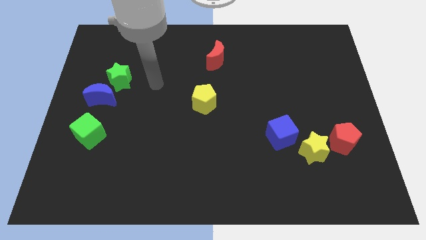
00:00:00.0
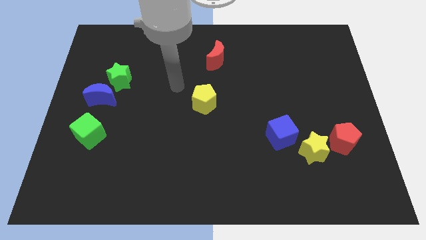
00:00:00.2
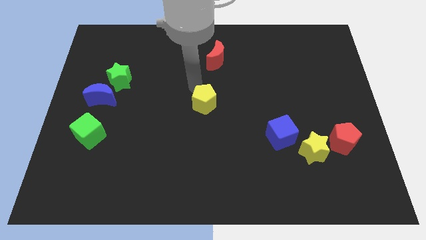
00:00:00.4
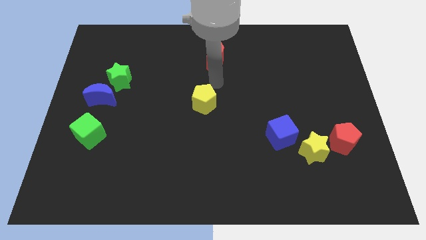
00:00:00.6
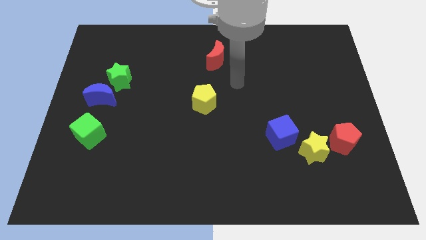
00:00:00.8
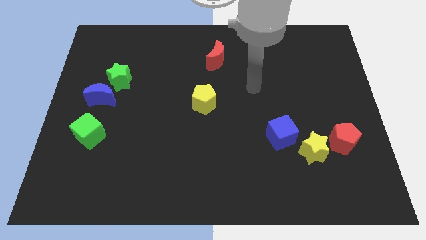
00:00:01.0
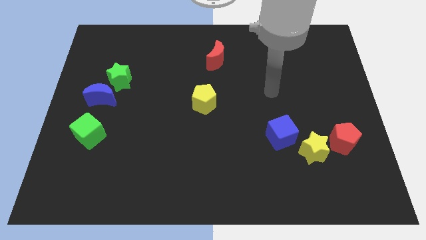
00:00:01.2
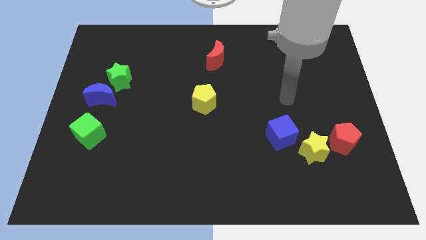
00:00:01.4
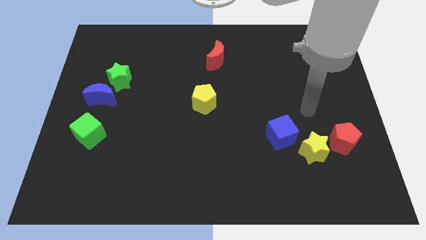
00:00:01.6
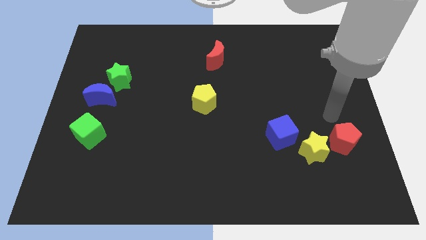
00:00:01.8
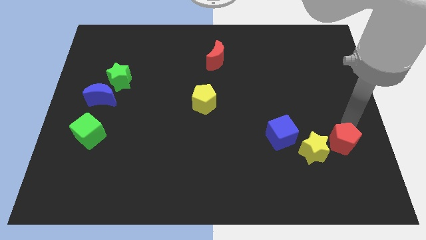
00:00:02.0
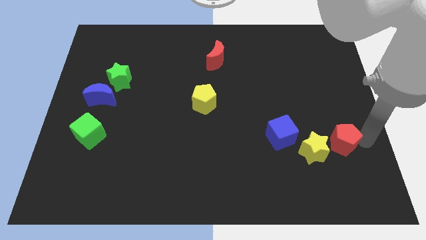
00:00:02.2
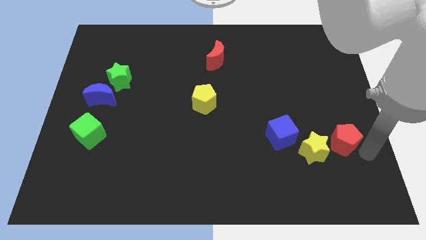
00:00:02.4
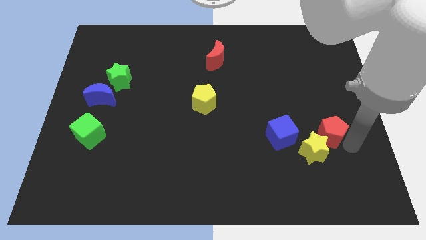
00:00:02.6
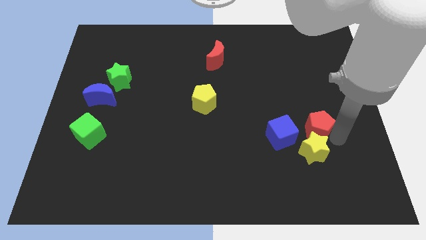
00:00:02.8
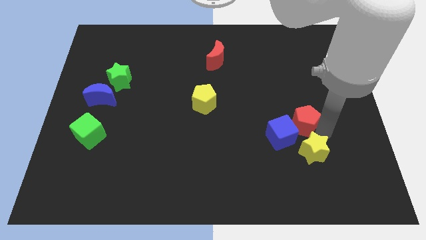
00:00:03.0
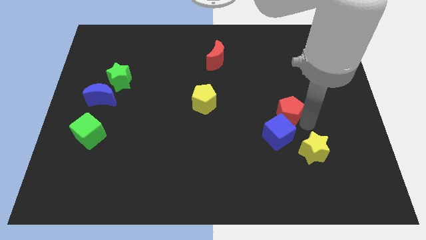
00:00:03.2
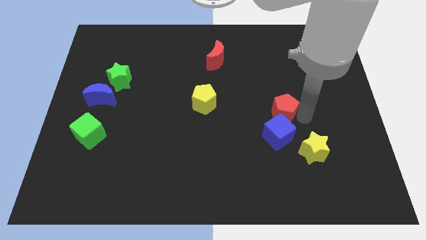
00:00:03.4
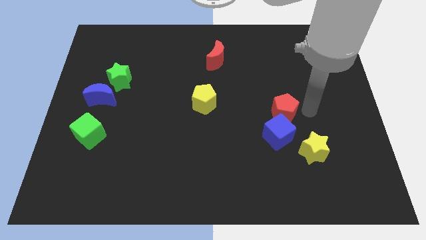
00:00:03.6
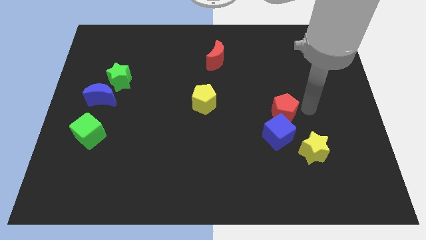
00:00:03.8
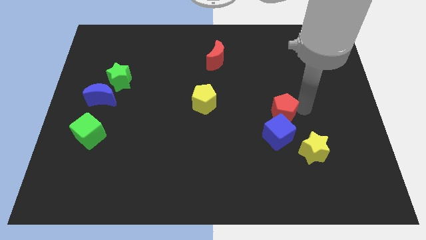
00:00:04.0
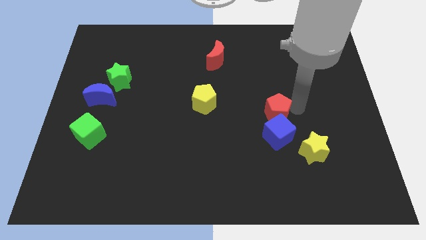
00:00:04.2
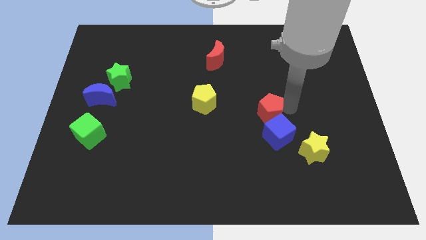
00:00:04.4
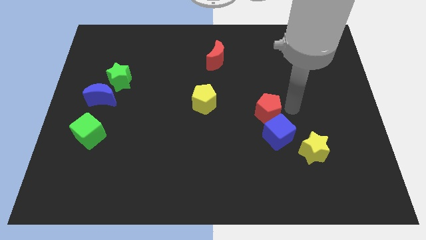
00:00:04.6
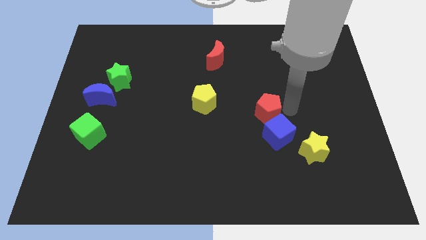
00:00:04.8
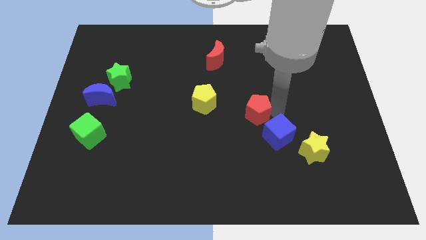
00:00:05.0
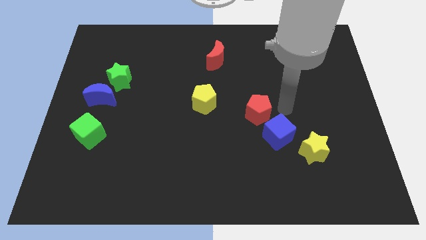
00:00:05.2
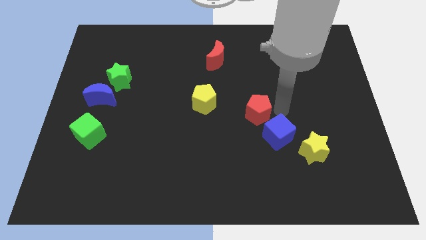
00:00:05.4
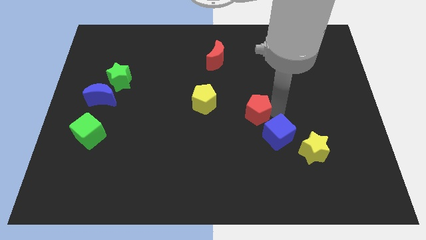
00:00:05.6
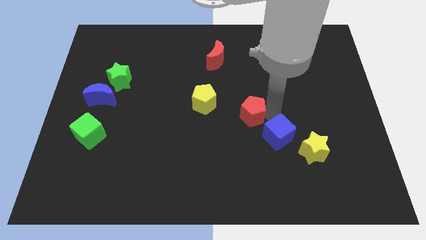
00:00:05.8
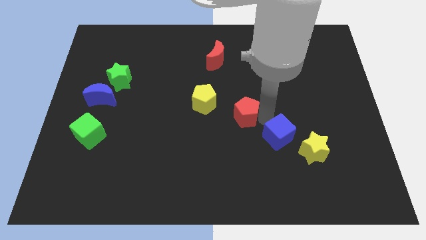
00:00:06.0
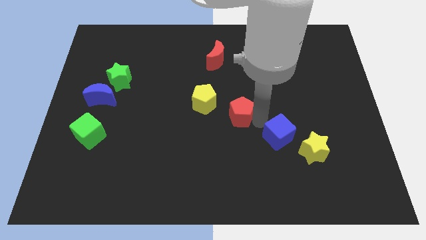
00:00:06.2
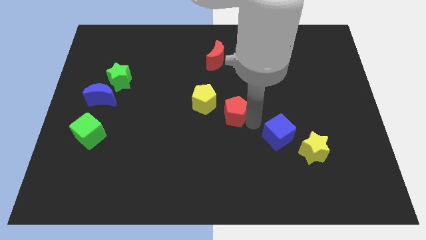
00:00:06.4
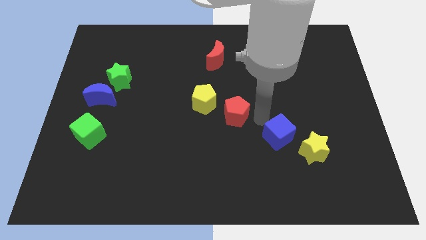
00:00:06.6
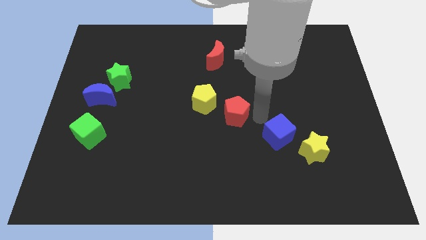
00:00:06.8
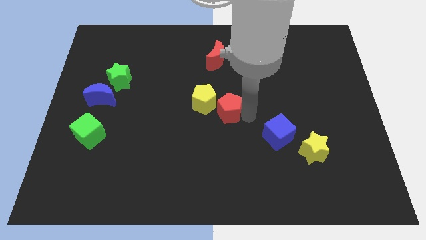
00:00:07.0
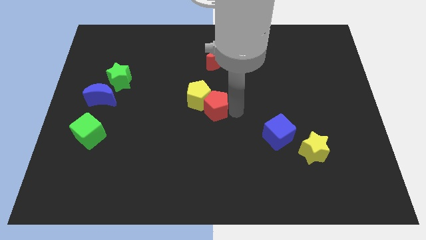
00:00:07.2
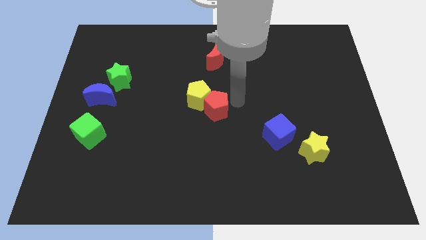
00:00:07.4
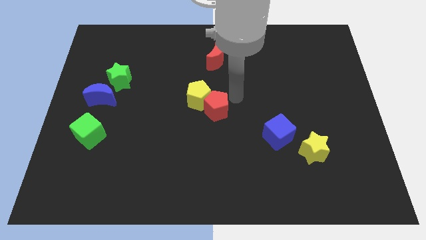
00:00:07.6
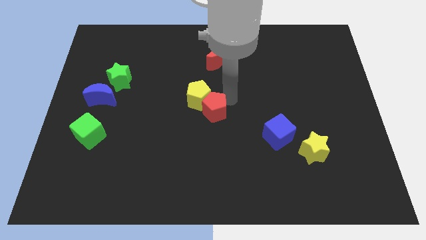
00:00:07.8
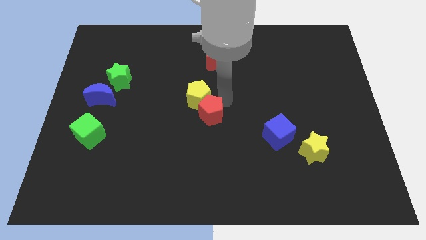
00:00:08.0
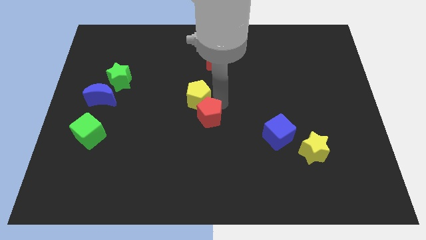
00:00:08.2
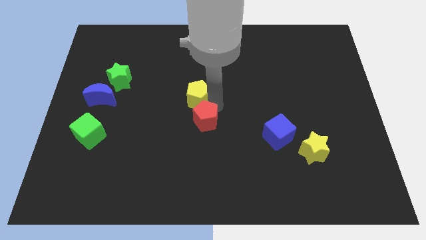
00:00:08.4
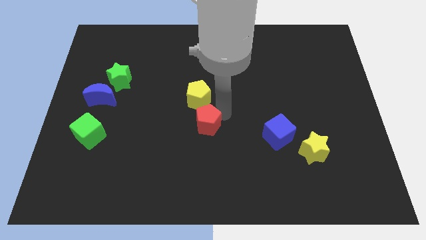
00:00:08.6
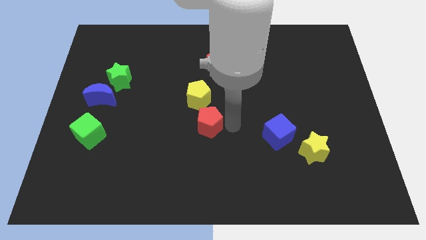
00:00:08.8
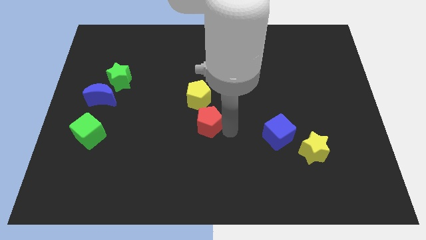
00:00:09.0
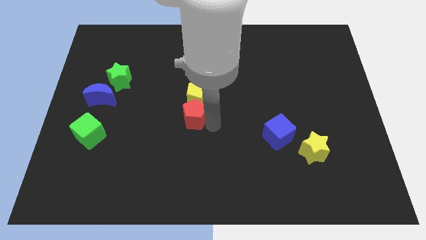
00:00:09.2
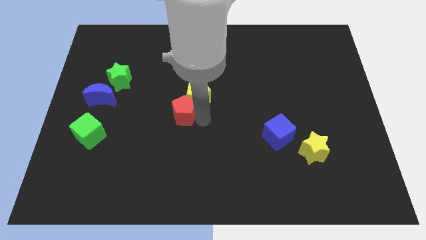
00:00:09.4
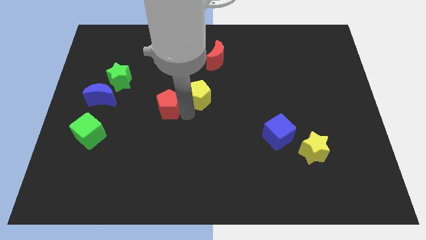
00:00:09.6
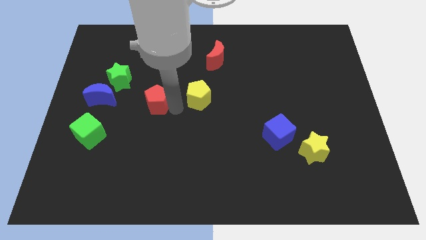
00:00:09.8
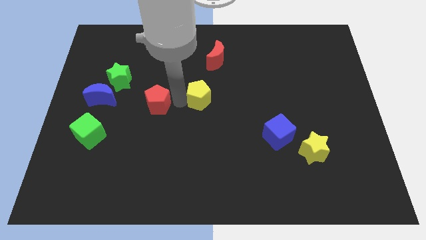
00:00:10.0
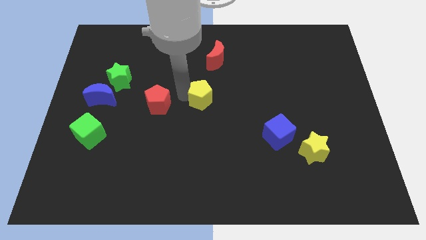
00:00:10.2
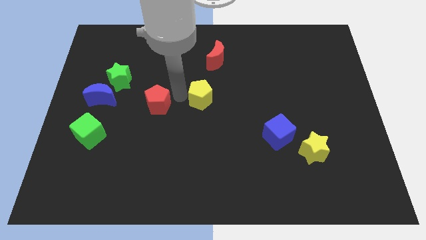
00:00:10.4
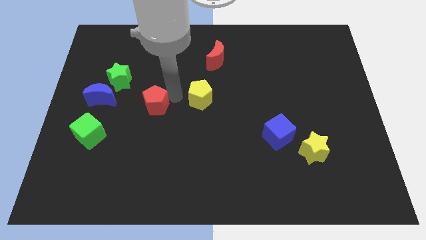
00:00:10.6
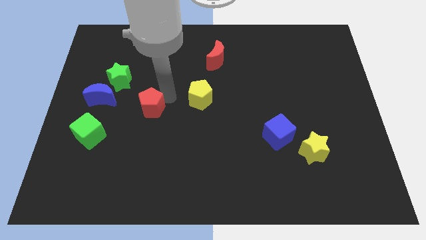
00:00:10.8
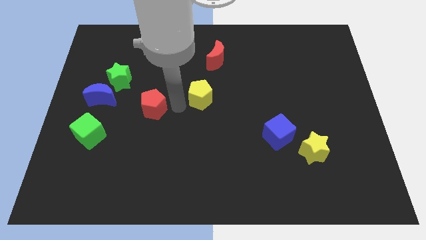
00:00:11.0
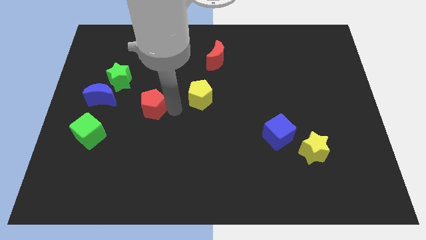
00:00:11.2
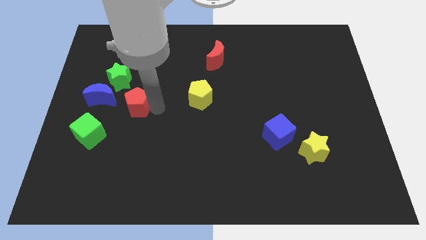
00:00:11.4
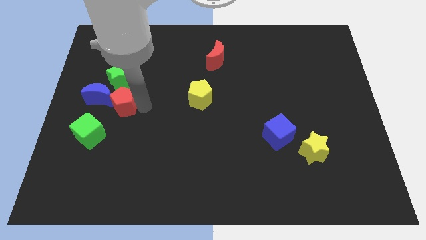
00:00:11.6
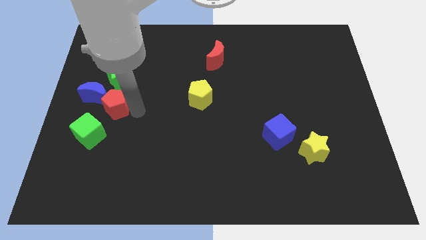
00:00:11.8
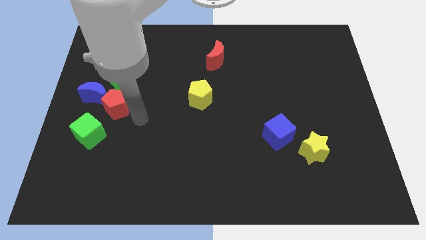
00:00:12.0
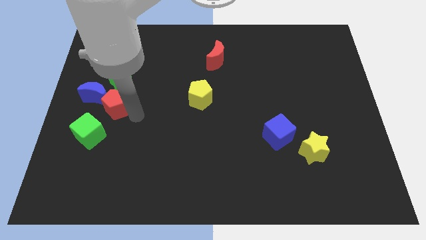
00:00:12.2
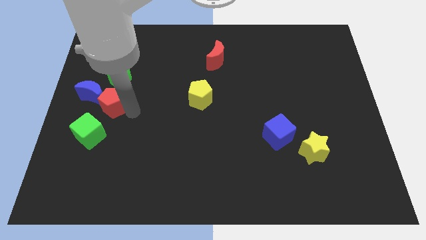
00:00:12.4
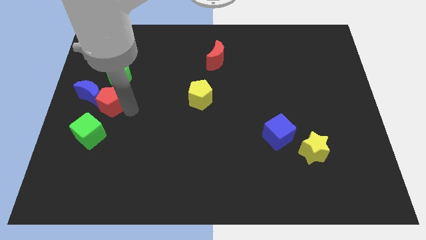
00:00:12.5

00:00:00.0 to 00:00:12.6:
slide the red pentagon towards the blue moon

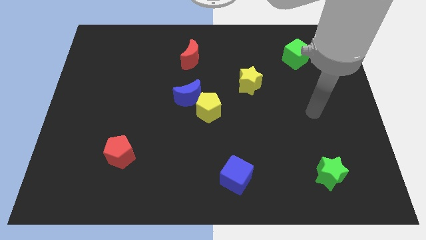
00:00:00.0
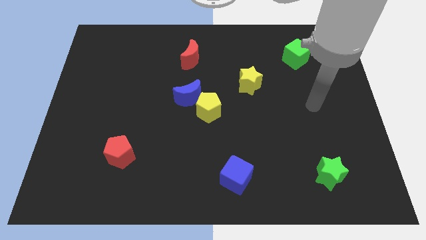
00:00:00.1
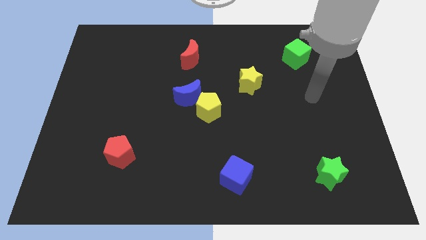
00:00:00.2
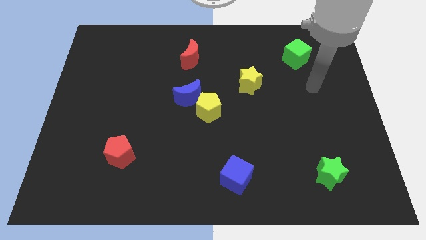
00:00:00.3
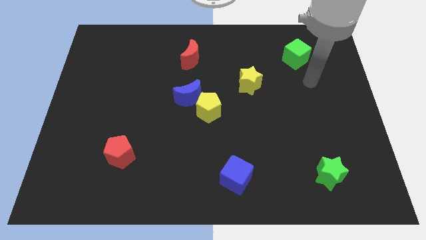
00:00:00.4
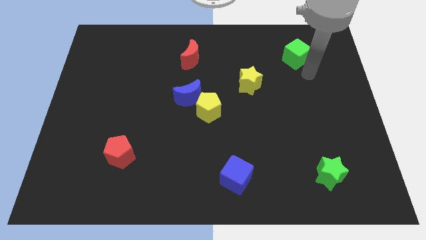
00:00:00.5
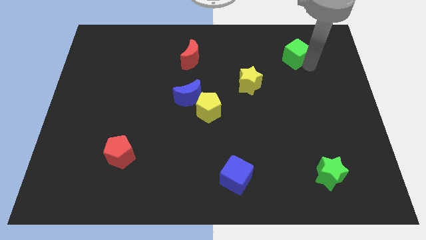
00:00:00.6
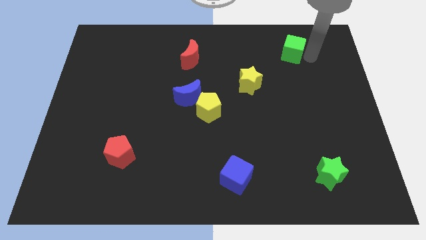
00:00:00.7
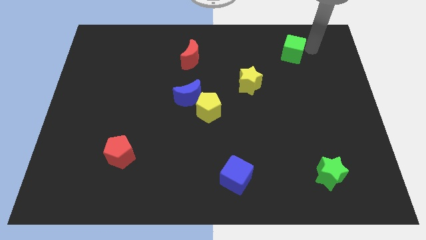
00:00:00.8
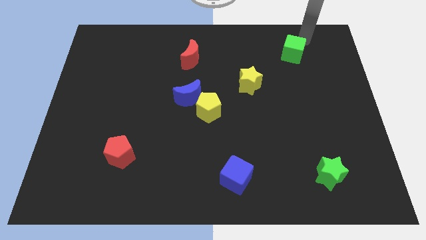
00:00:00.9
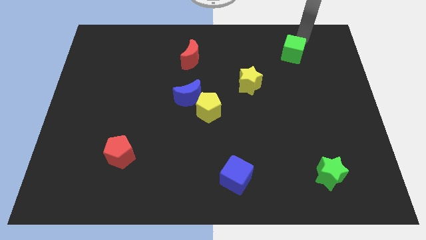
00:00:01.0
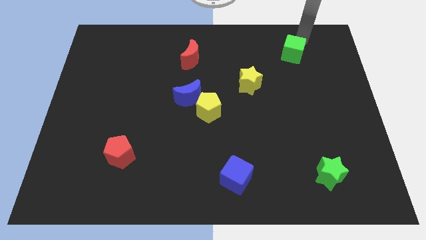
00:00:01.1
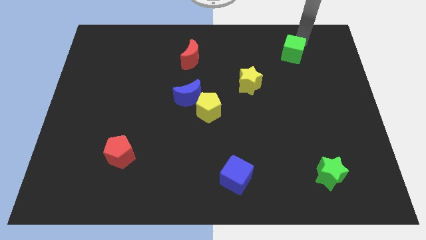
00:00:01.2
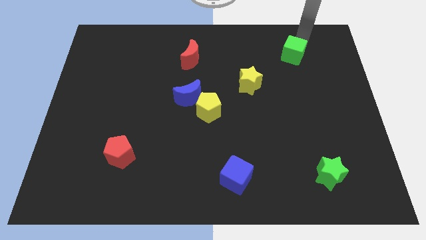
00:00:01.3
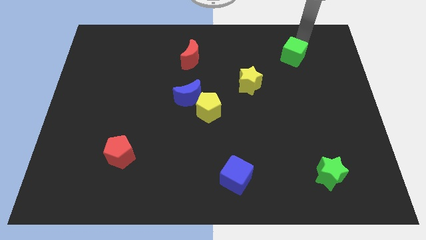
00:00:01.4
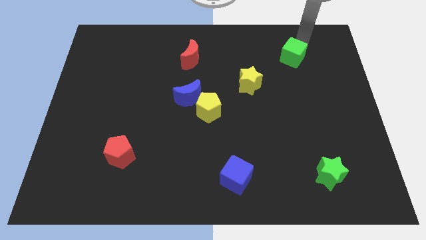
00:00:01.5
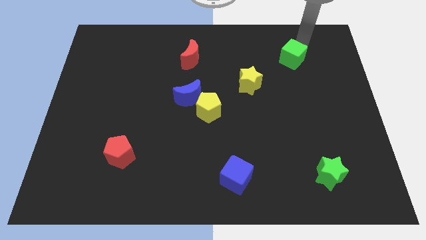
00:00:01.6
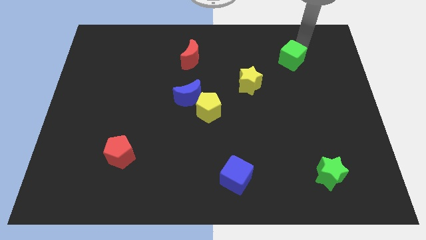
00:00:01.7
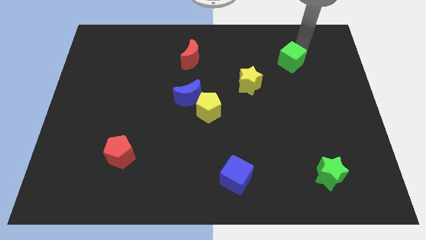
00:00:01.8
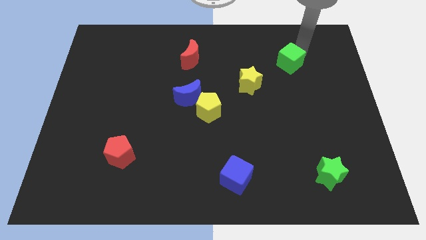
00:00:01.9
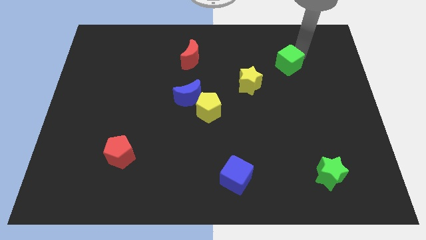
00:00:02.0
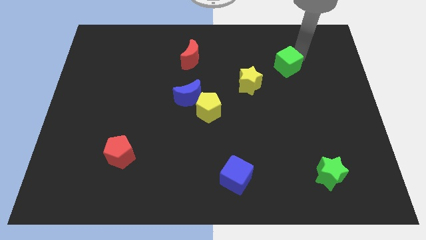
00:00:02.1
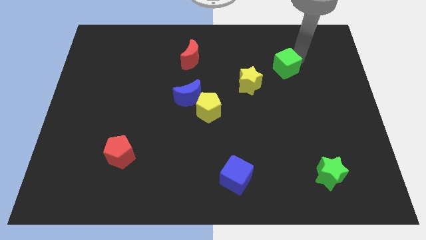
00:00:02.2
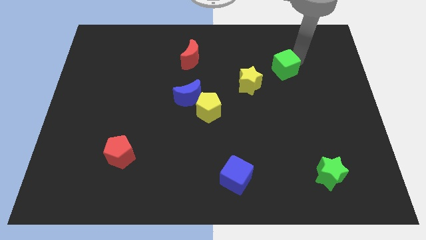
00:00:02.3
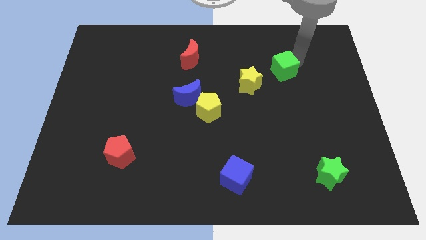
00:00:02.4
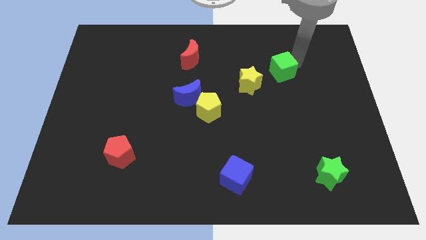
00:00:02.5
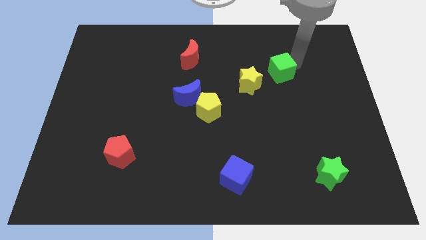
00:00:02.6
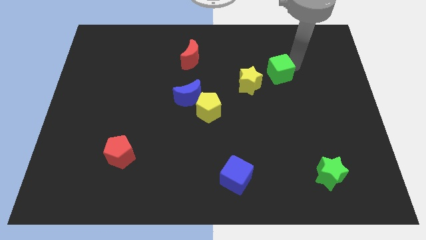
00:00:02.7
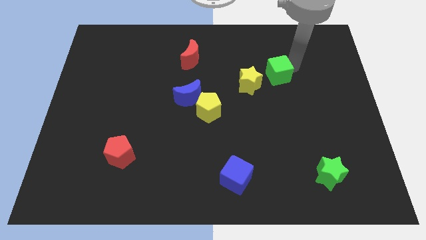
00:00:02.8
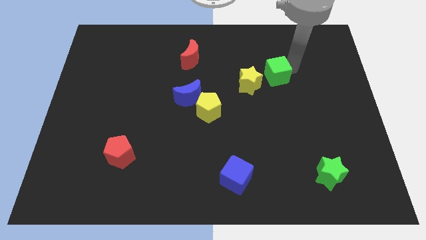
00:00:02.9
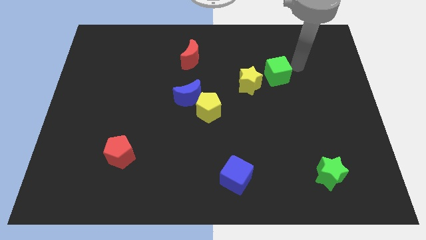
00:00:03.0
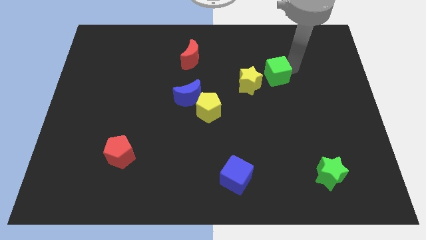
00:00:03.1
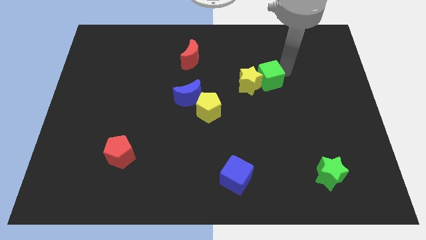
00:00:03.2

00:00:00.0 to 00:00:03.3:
move the green cube next to the yellow star
